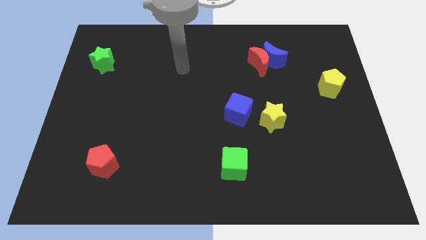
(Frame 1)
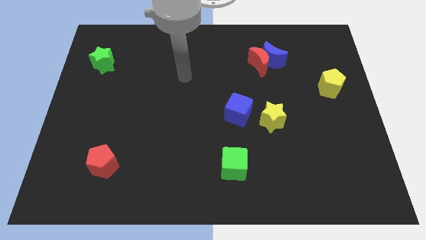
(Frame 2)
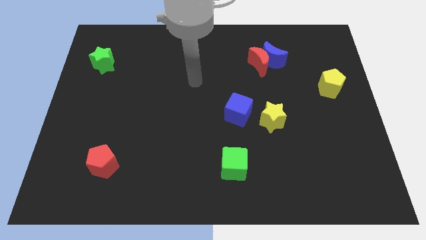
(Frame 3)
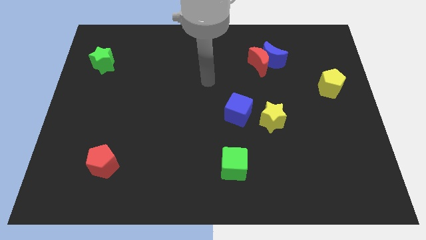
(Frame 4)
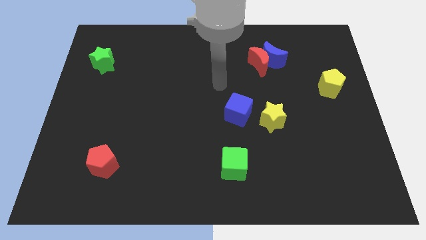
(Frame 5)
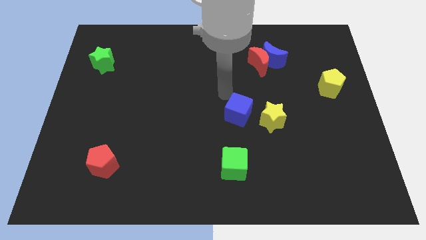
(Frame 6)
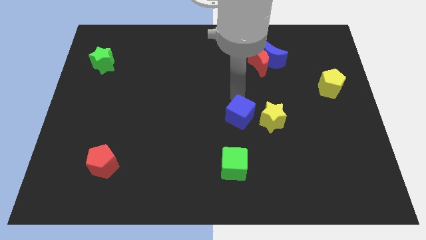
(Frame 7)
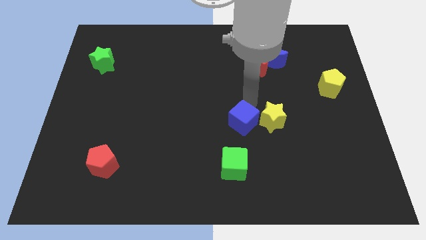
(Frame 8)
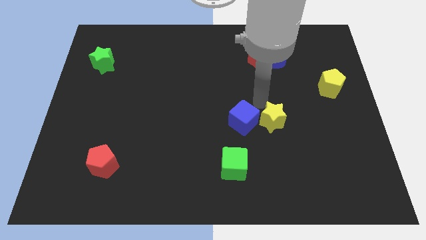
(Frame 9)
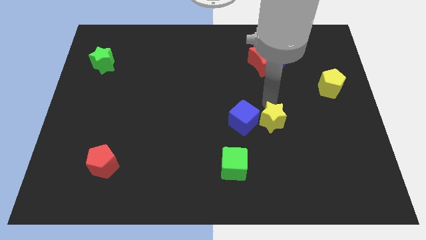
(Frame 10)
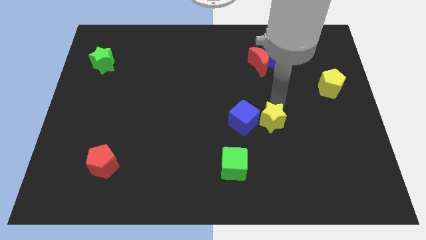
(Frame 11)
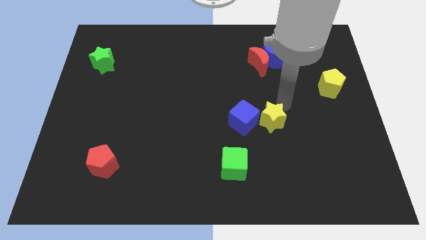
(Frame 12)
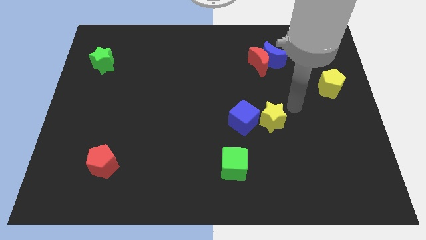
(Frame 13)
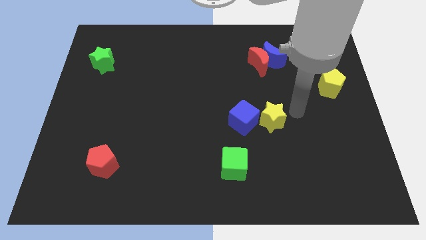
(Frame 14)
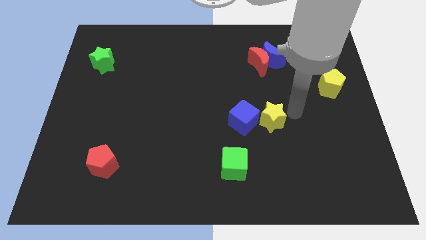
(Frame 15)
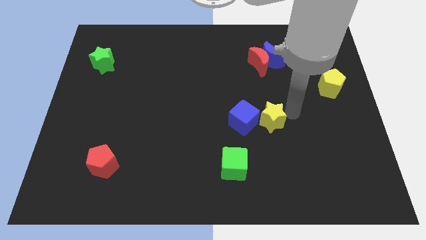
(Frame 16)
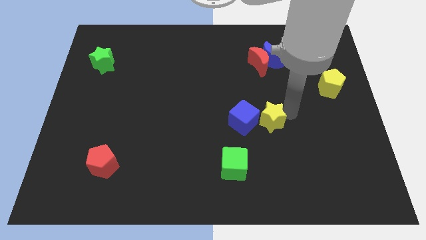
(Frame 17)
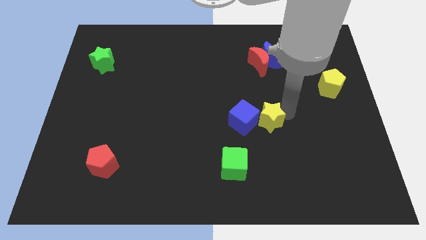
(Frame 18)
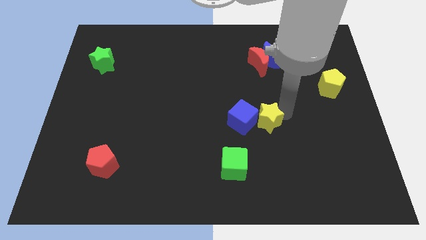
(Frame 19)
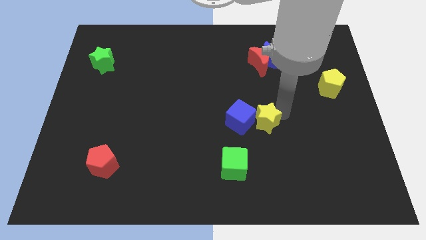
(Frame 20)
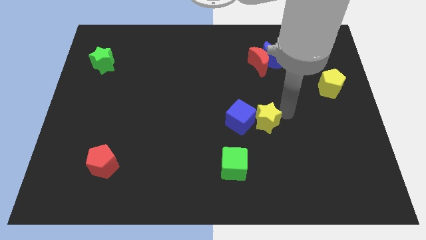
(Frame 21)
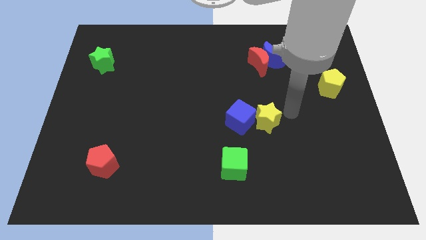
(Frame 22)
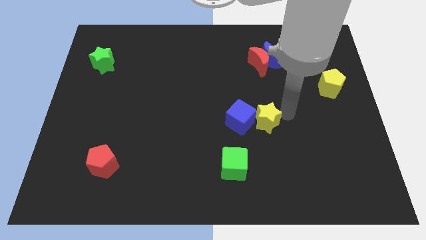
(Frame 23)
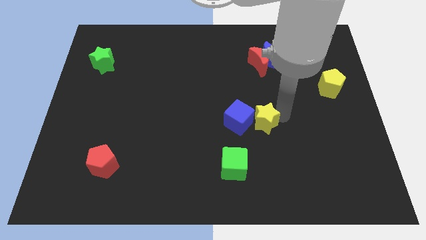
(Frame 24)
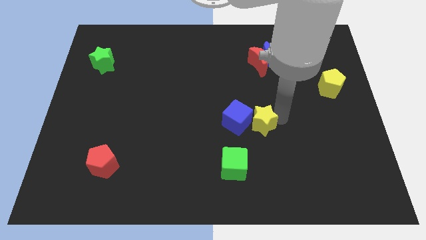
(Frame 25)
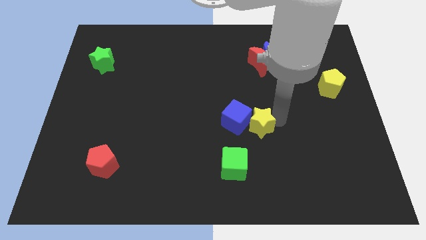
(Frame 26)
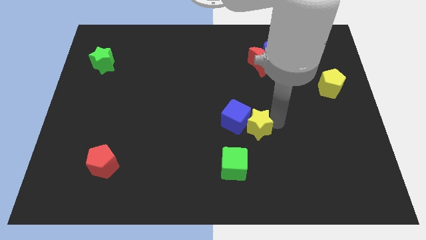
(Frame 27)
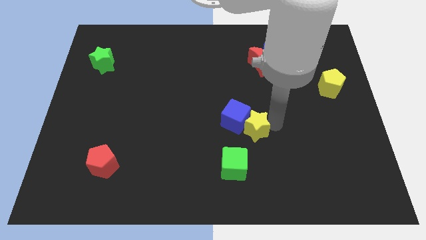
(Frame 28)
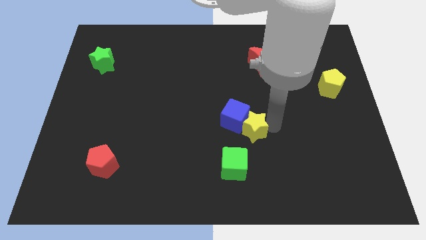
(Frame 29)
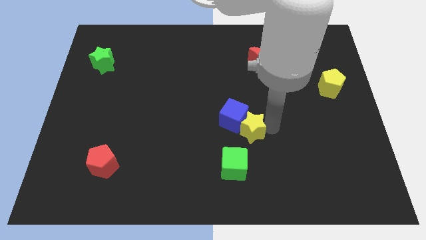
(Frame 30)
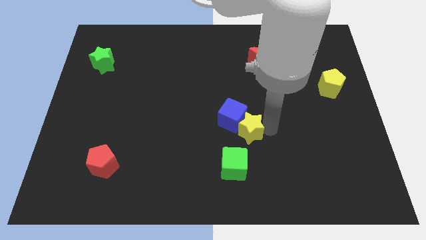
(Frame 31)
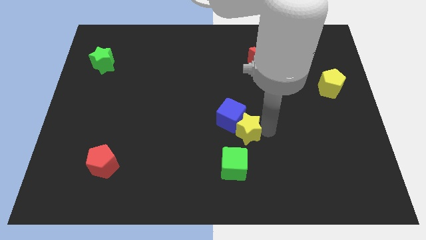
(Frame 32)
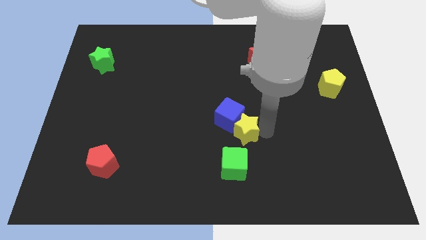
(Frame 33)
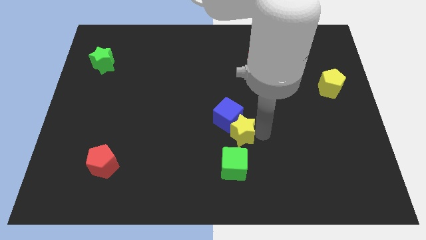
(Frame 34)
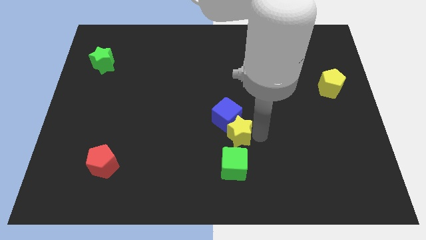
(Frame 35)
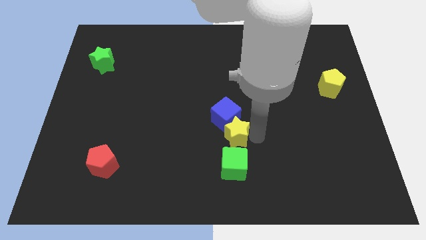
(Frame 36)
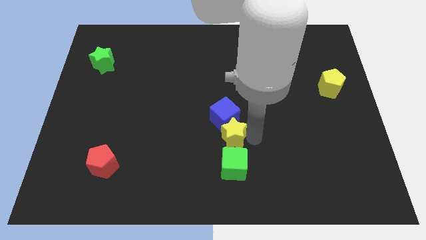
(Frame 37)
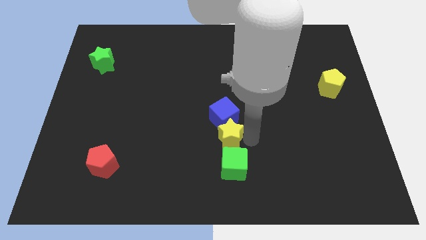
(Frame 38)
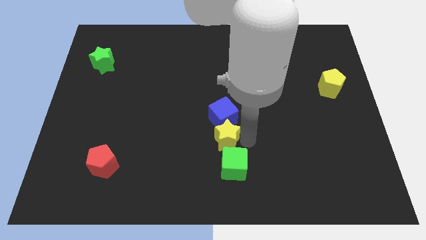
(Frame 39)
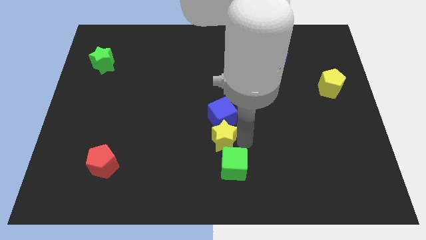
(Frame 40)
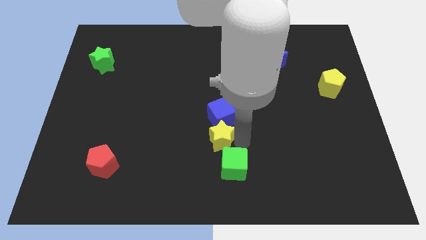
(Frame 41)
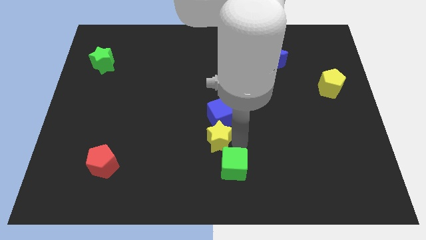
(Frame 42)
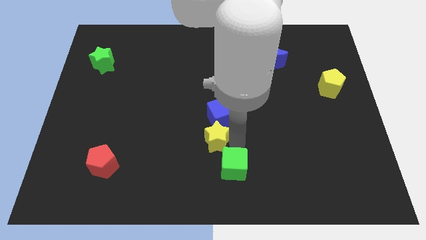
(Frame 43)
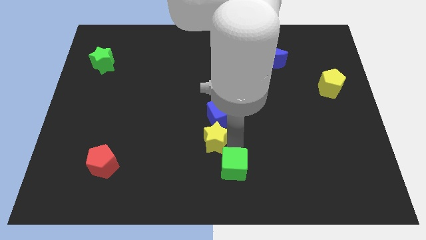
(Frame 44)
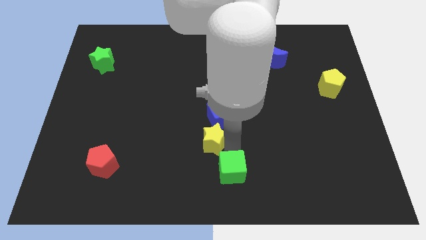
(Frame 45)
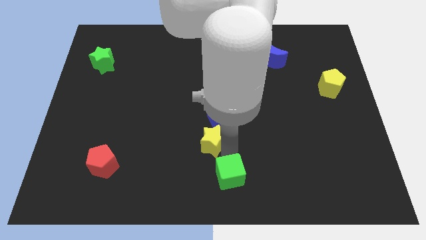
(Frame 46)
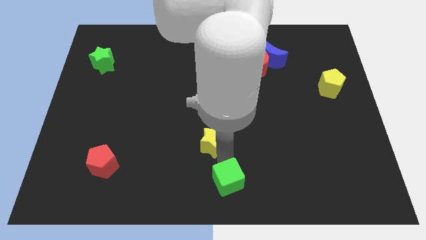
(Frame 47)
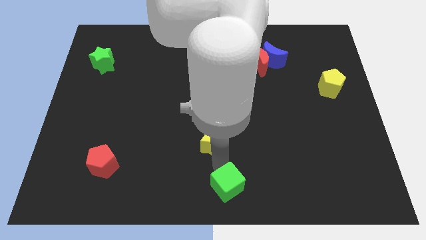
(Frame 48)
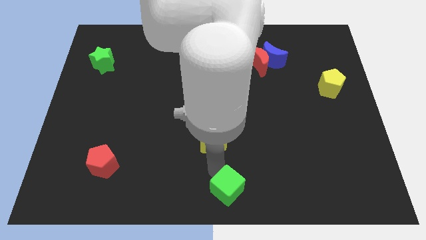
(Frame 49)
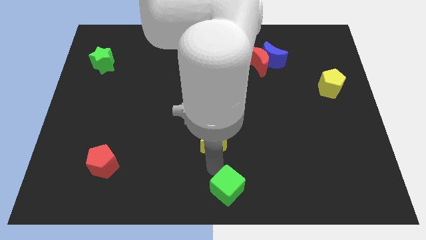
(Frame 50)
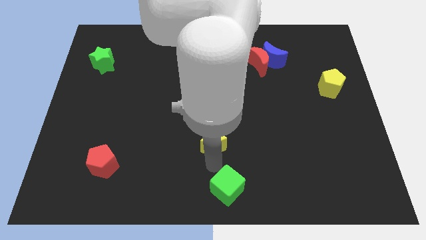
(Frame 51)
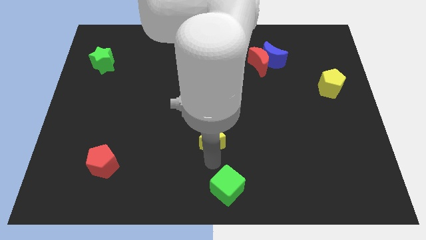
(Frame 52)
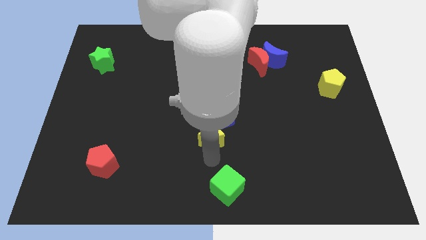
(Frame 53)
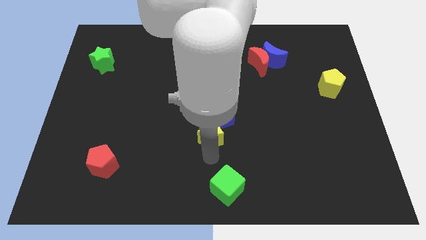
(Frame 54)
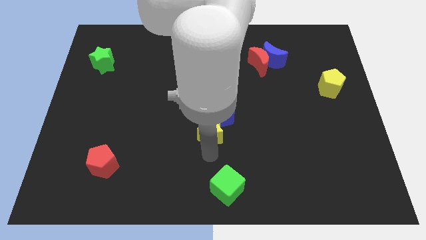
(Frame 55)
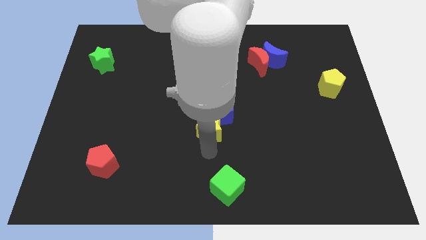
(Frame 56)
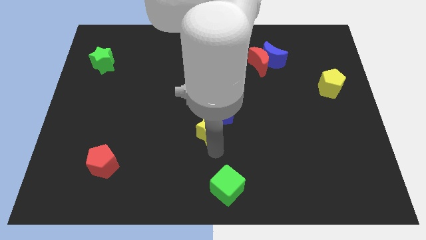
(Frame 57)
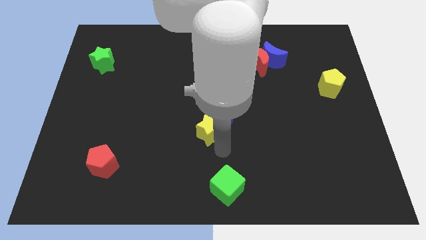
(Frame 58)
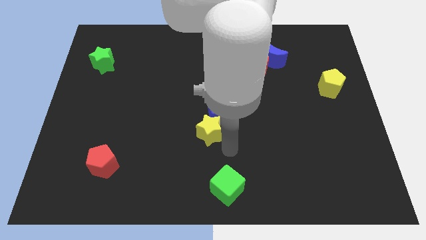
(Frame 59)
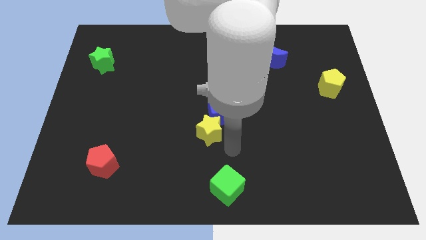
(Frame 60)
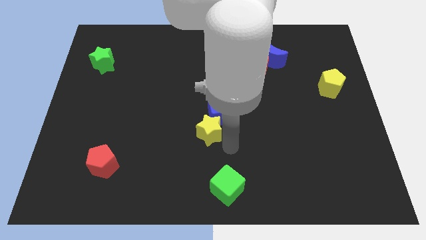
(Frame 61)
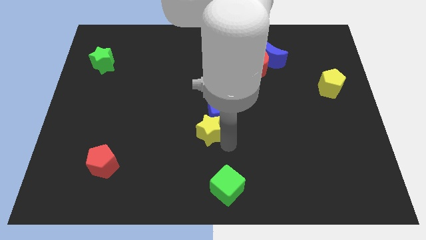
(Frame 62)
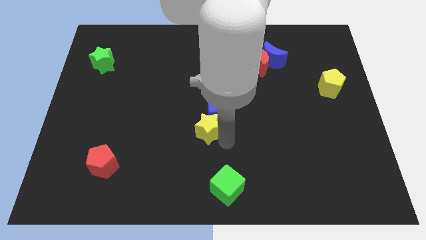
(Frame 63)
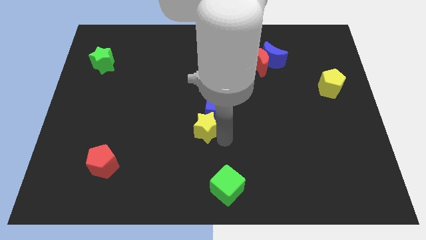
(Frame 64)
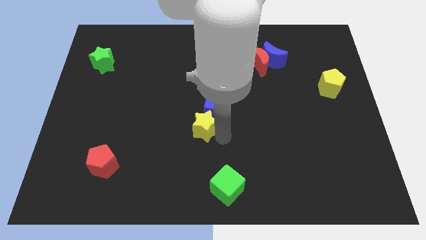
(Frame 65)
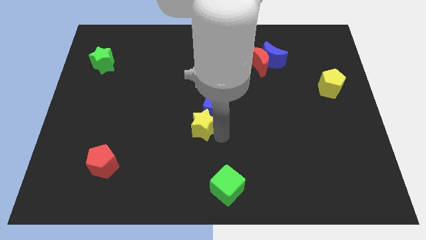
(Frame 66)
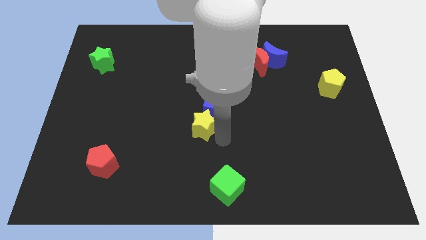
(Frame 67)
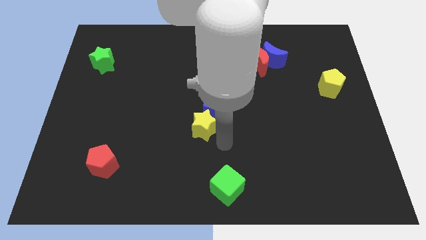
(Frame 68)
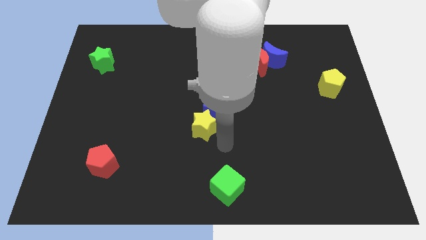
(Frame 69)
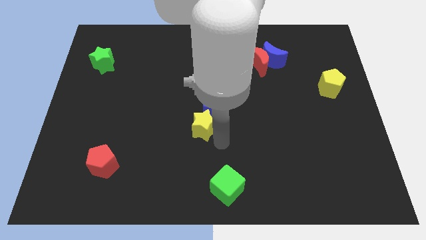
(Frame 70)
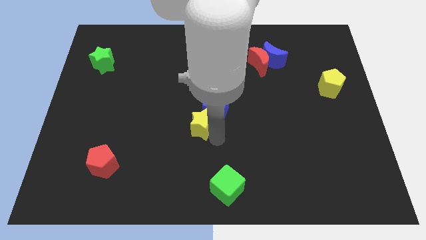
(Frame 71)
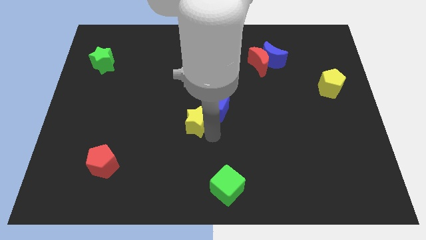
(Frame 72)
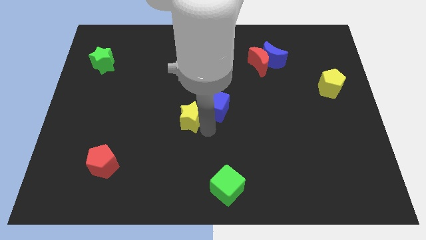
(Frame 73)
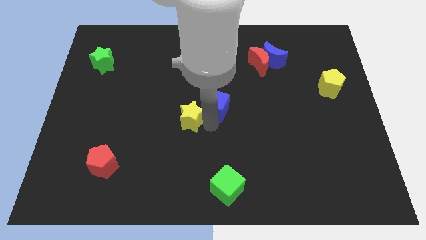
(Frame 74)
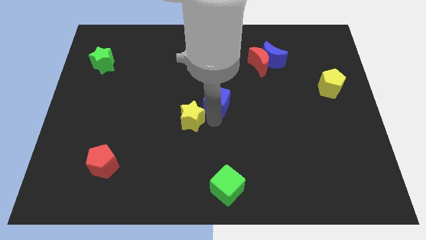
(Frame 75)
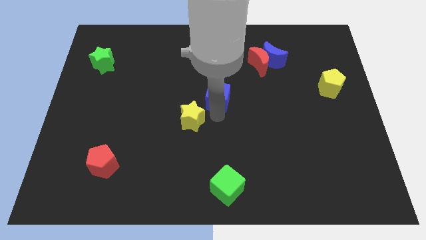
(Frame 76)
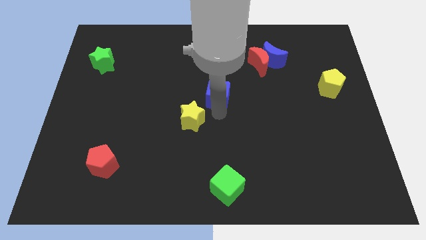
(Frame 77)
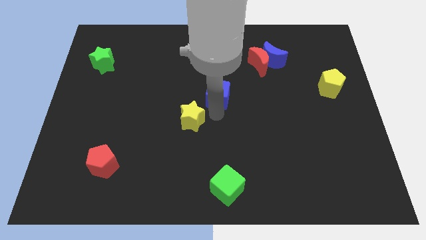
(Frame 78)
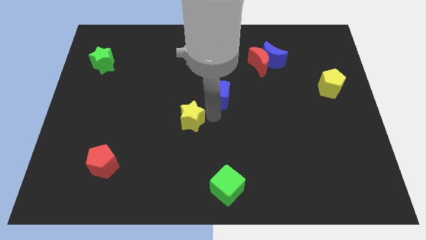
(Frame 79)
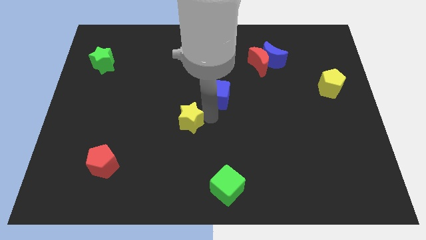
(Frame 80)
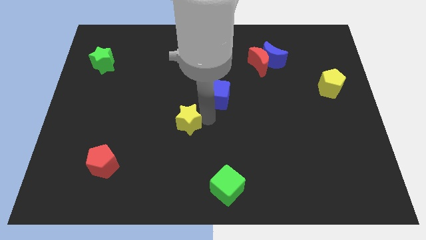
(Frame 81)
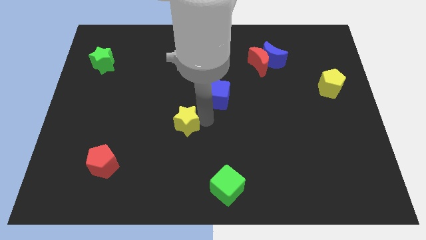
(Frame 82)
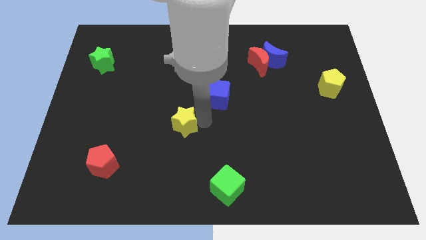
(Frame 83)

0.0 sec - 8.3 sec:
push the yellow star left

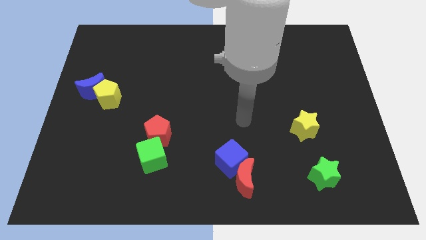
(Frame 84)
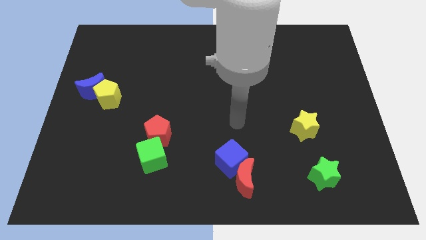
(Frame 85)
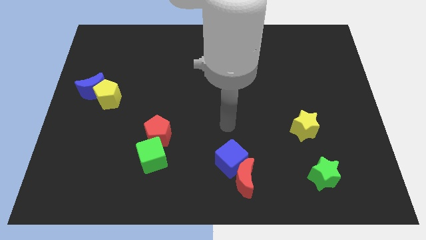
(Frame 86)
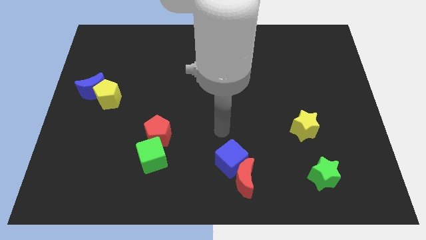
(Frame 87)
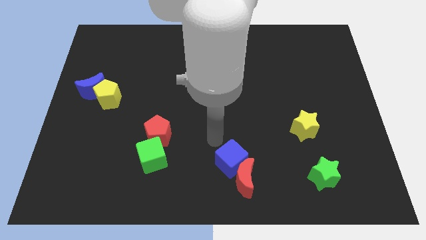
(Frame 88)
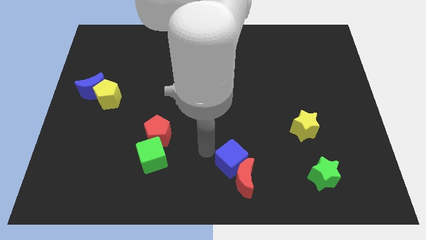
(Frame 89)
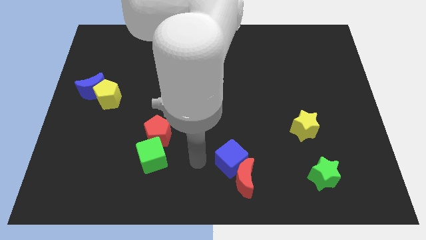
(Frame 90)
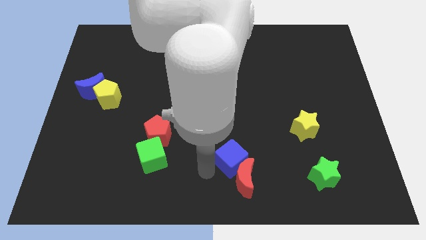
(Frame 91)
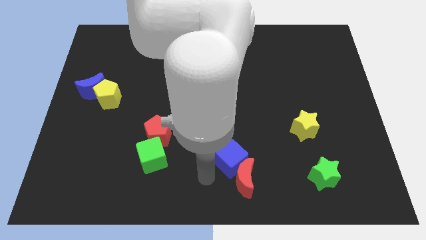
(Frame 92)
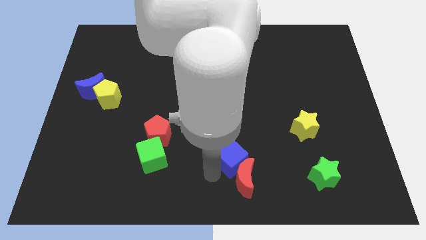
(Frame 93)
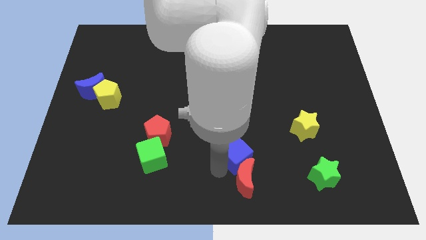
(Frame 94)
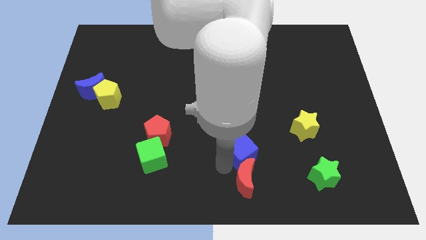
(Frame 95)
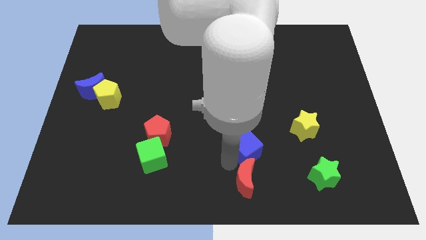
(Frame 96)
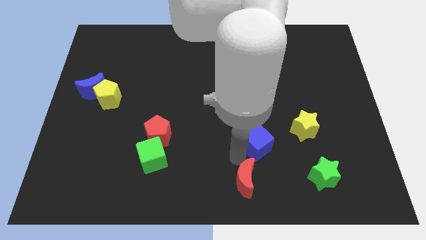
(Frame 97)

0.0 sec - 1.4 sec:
move the blue cube a little upwards and then to the right
